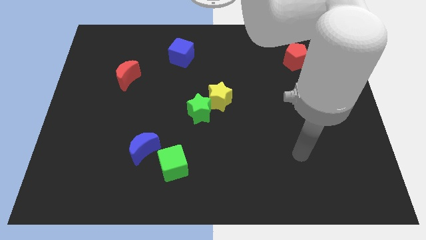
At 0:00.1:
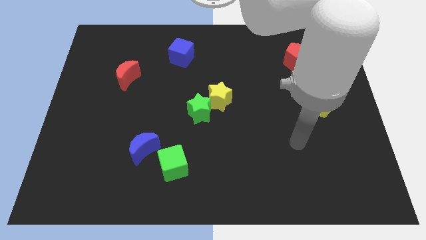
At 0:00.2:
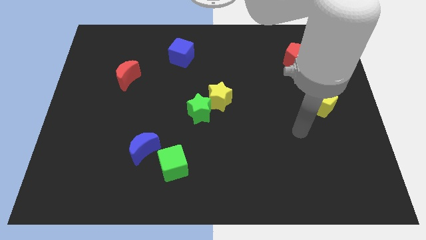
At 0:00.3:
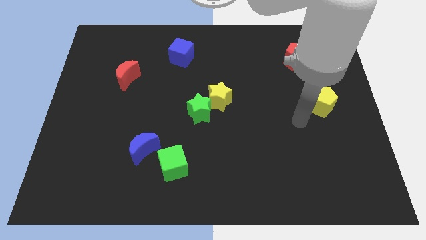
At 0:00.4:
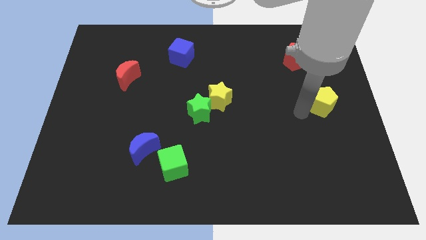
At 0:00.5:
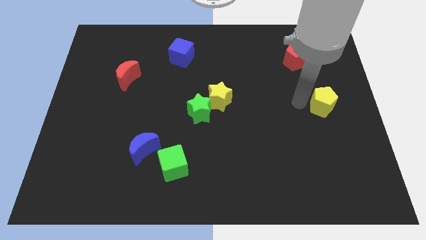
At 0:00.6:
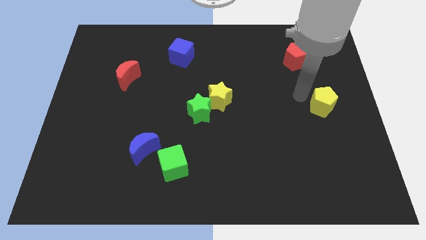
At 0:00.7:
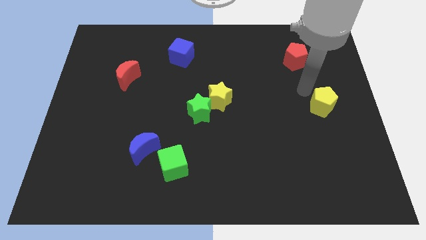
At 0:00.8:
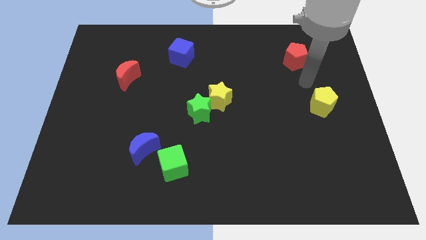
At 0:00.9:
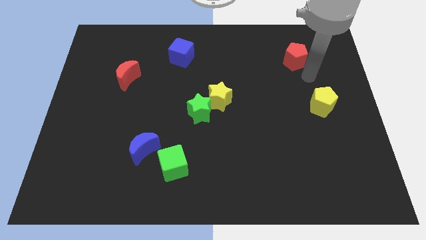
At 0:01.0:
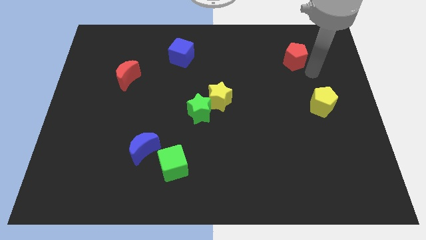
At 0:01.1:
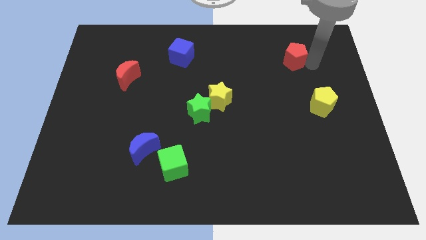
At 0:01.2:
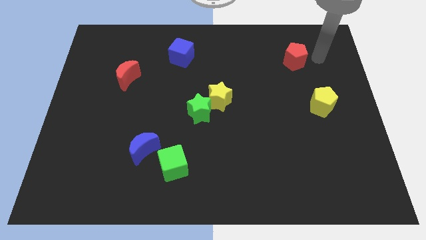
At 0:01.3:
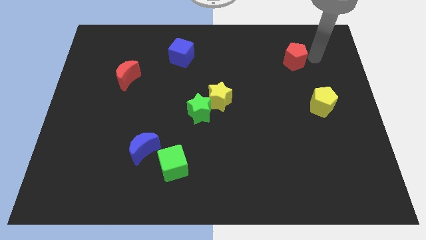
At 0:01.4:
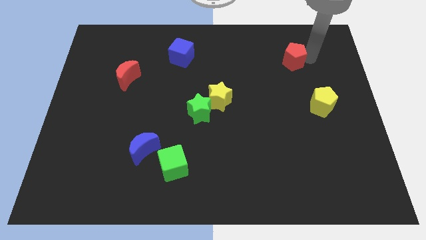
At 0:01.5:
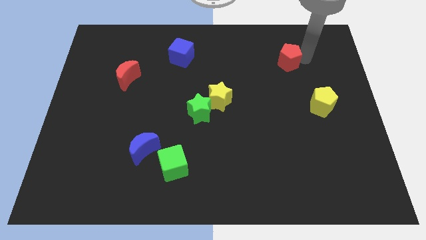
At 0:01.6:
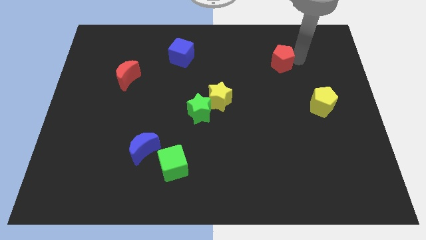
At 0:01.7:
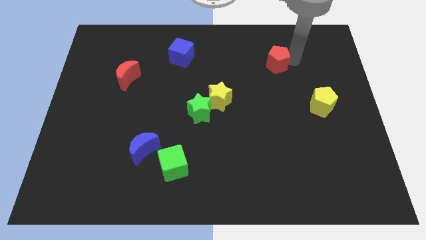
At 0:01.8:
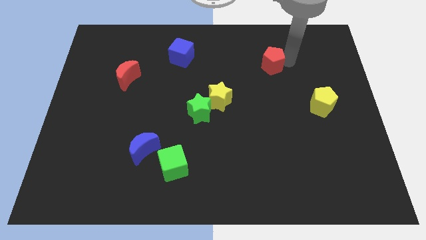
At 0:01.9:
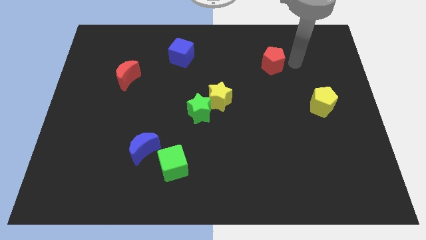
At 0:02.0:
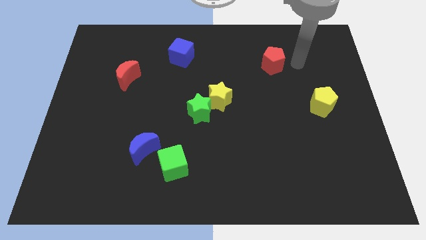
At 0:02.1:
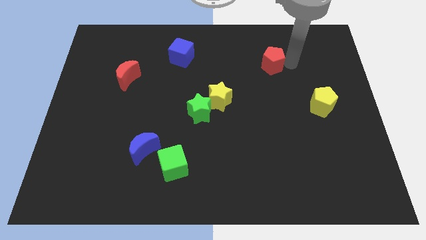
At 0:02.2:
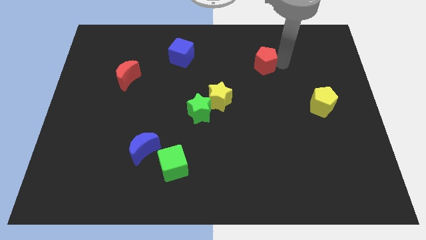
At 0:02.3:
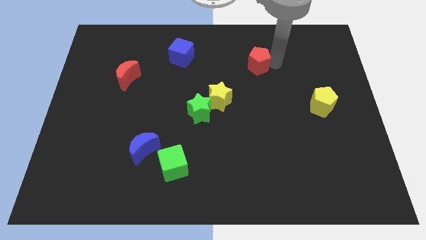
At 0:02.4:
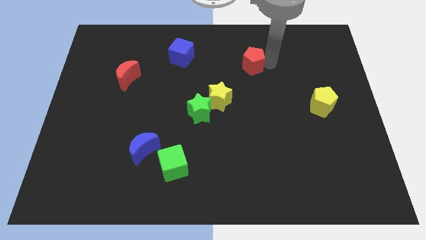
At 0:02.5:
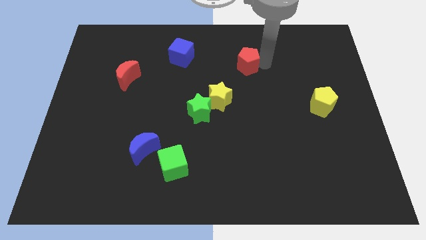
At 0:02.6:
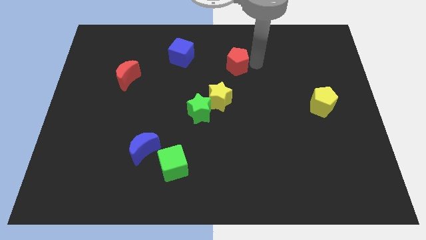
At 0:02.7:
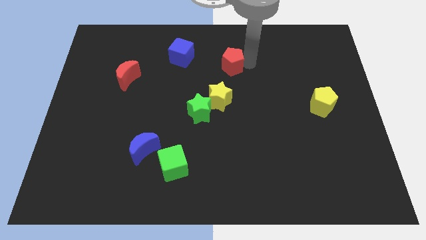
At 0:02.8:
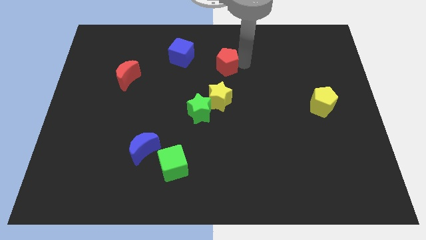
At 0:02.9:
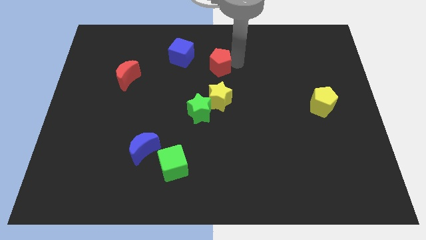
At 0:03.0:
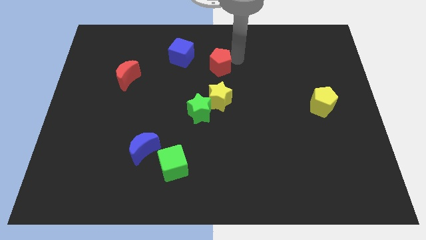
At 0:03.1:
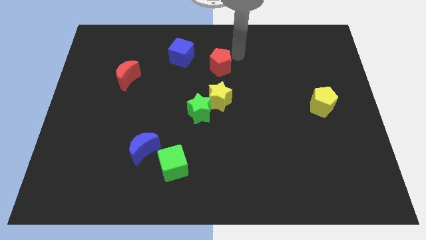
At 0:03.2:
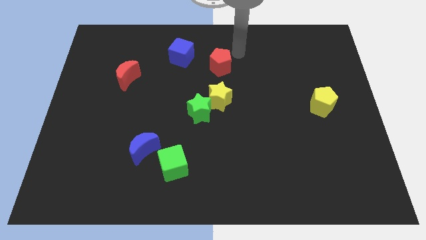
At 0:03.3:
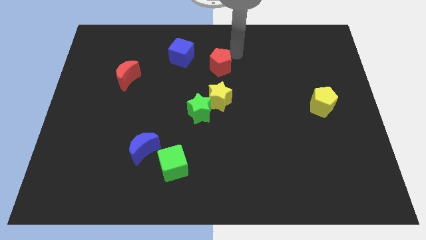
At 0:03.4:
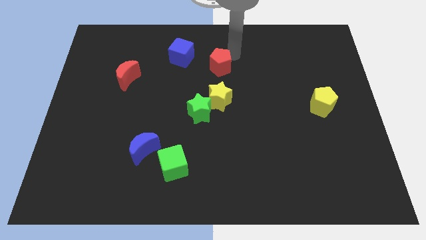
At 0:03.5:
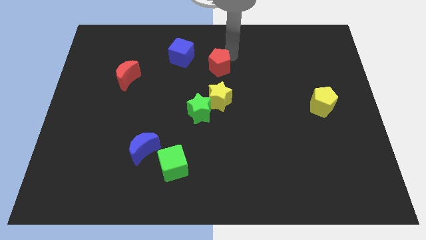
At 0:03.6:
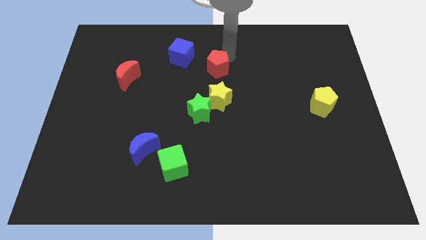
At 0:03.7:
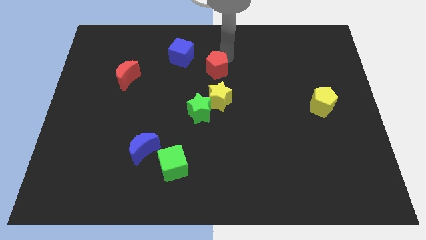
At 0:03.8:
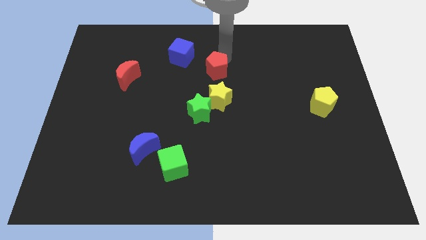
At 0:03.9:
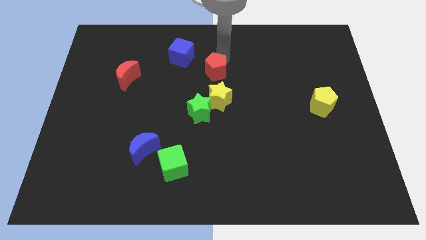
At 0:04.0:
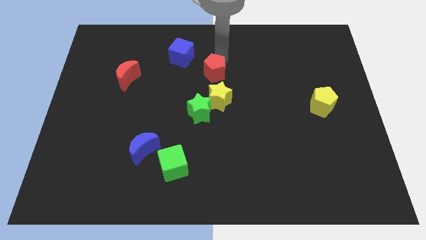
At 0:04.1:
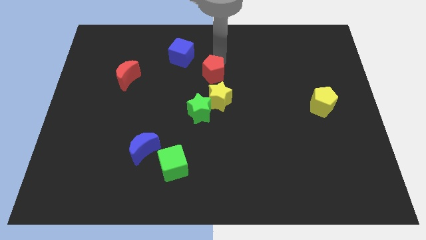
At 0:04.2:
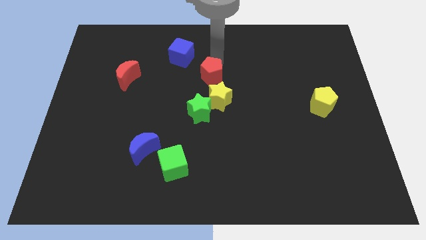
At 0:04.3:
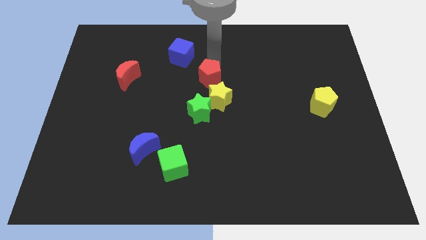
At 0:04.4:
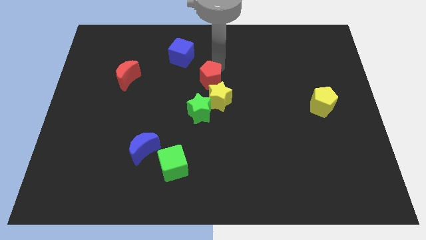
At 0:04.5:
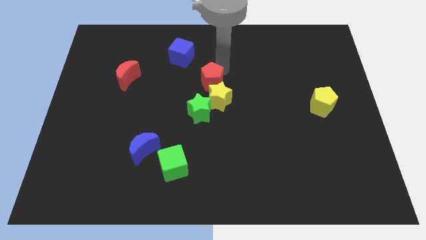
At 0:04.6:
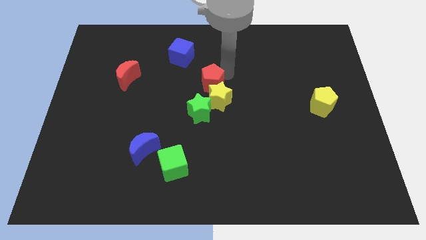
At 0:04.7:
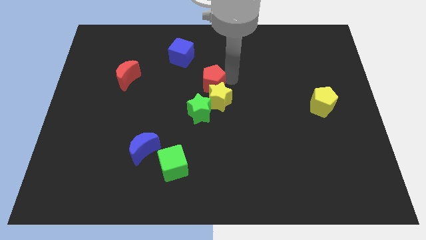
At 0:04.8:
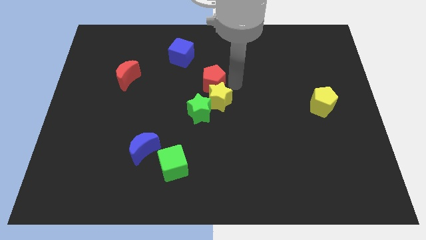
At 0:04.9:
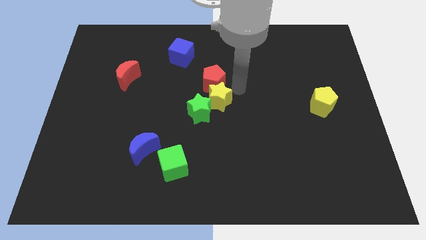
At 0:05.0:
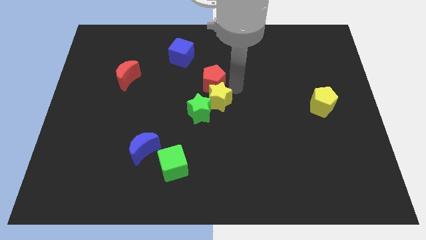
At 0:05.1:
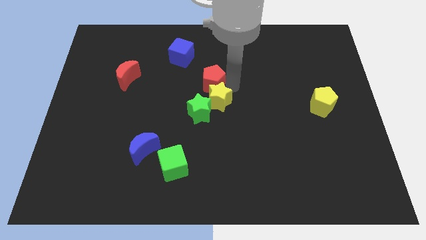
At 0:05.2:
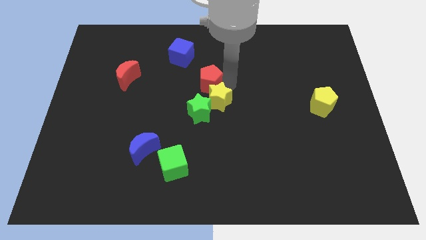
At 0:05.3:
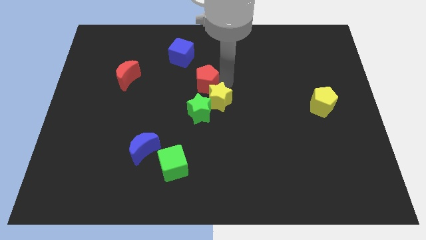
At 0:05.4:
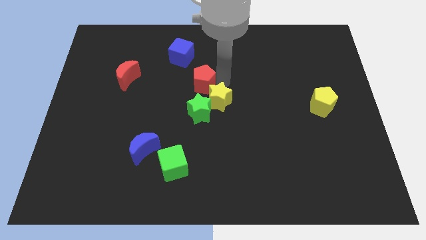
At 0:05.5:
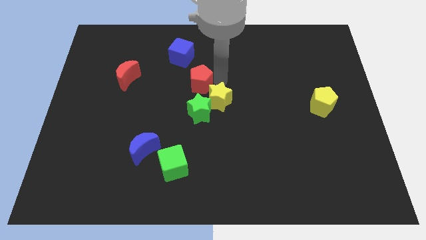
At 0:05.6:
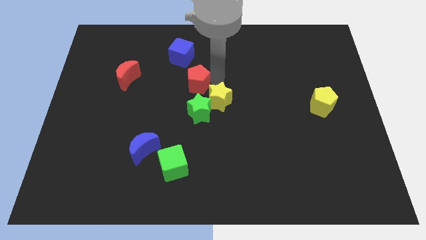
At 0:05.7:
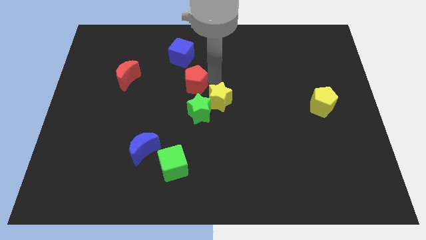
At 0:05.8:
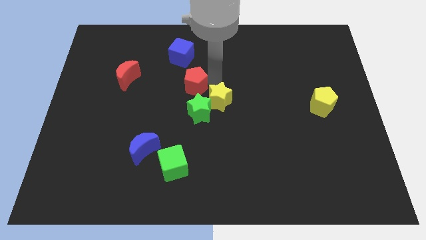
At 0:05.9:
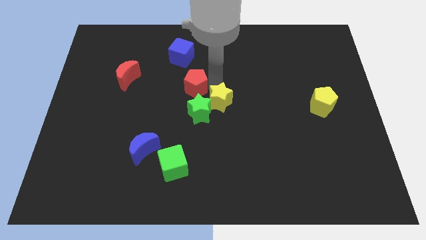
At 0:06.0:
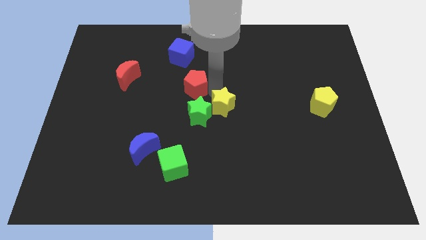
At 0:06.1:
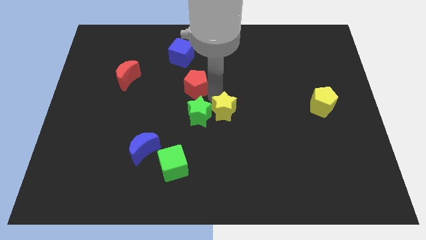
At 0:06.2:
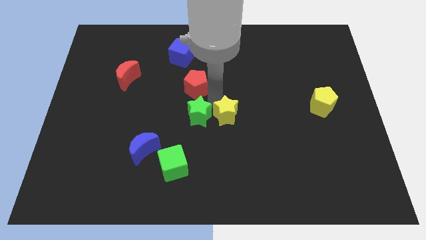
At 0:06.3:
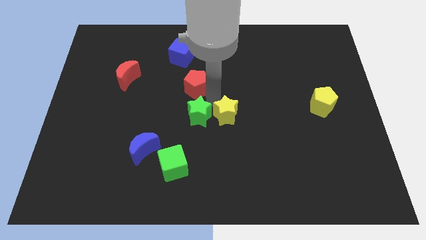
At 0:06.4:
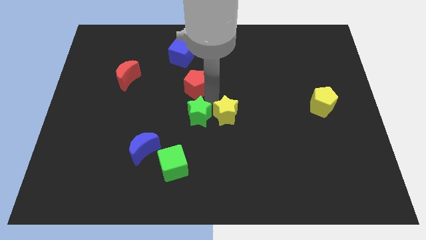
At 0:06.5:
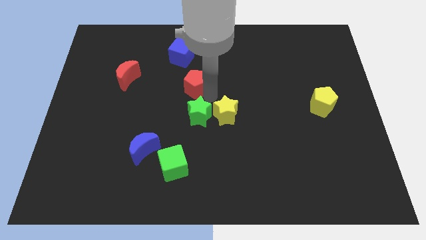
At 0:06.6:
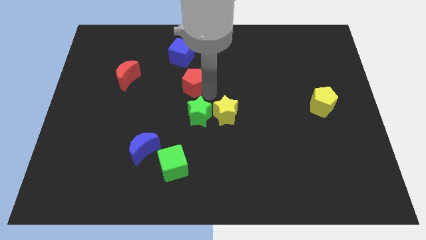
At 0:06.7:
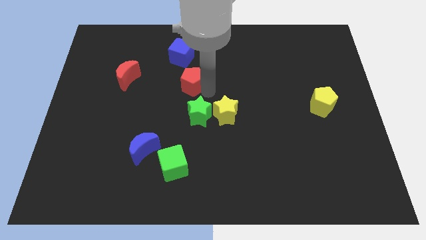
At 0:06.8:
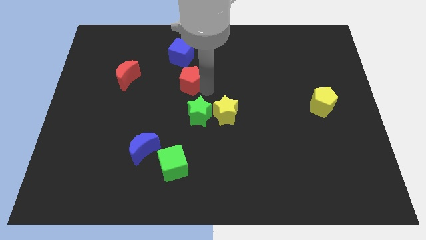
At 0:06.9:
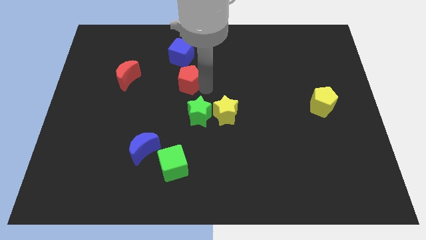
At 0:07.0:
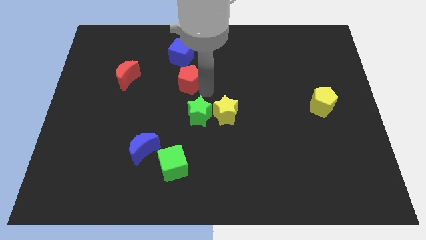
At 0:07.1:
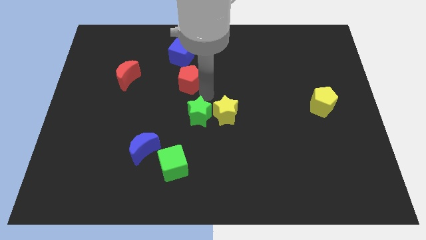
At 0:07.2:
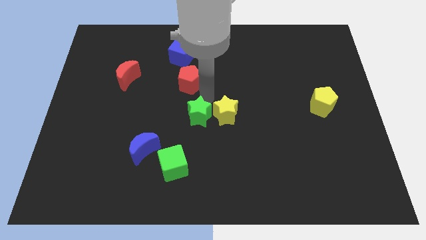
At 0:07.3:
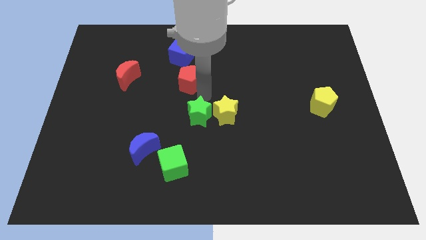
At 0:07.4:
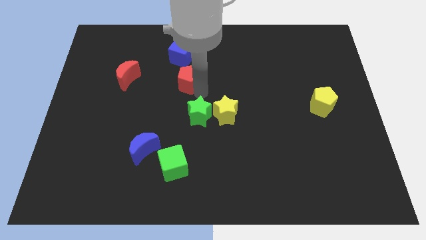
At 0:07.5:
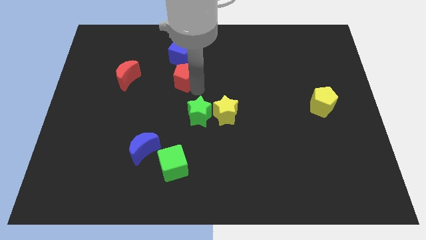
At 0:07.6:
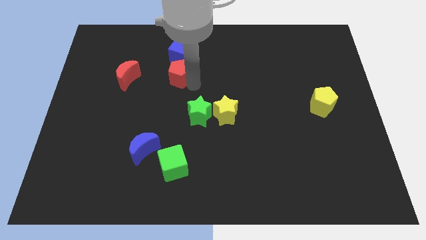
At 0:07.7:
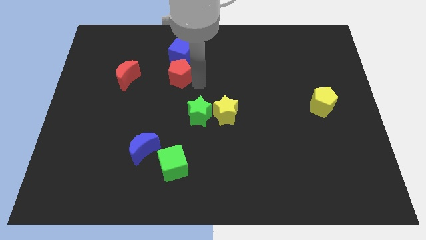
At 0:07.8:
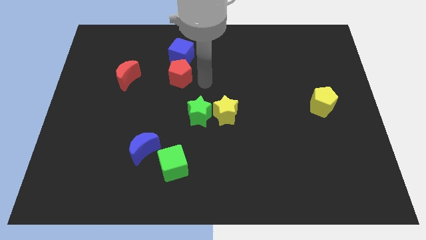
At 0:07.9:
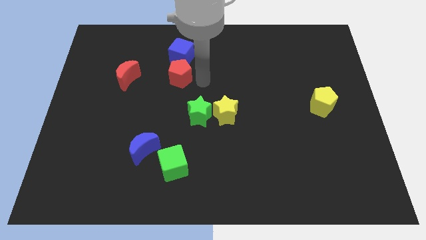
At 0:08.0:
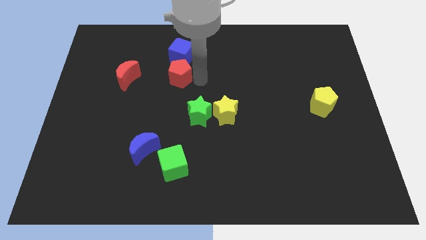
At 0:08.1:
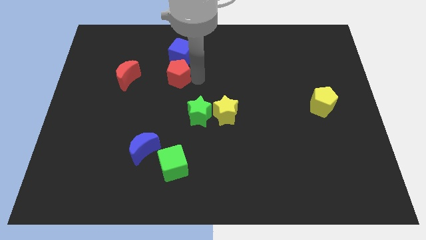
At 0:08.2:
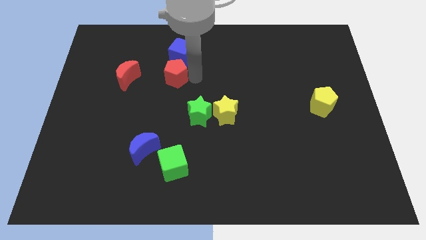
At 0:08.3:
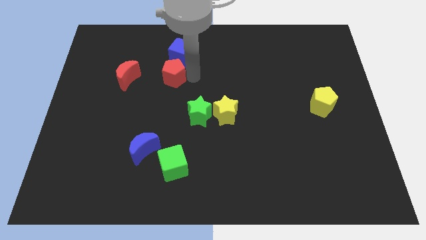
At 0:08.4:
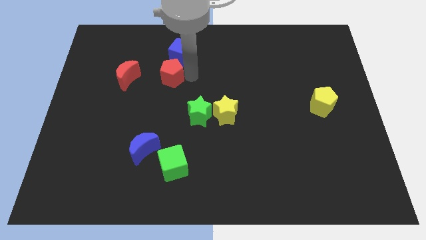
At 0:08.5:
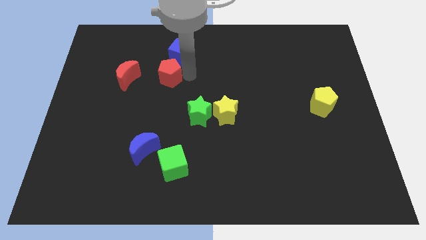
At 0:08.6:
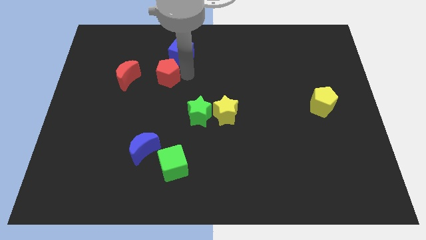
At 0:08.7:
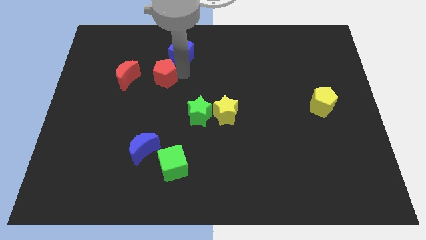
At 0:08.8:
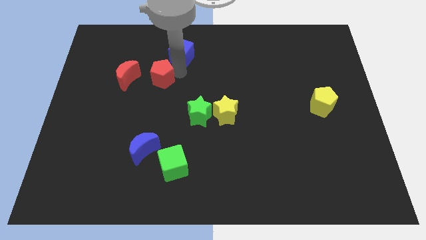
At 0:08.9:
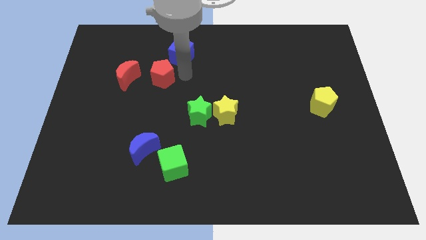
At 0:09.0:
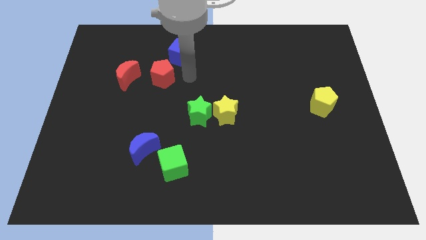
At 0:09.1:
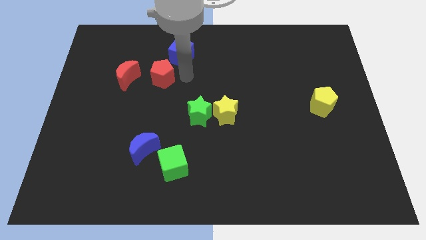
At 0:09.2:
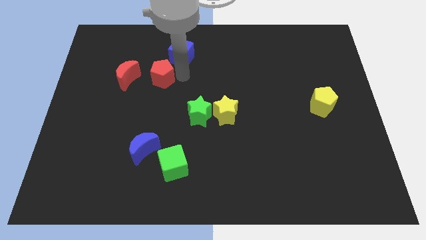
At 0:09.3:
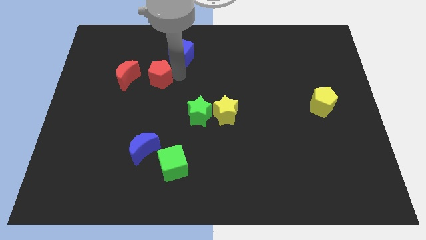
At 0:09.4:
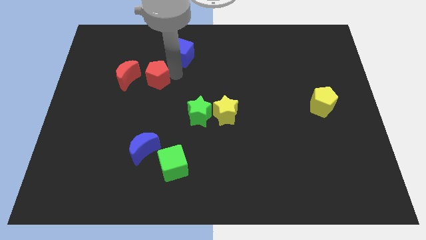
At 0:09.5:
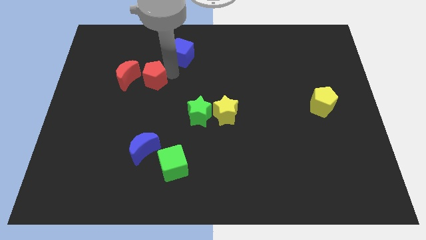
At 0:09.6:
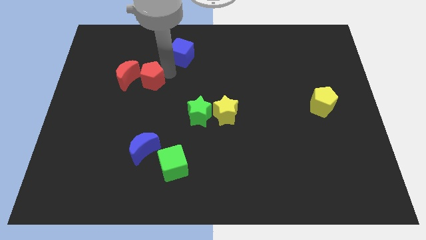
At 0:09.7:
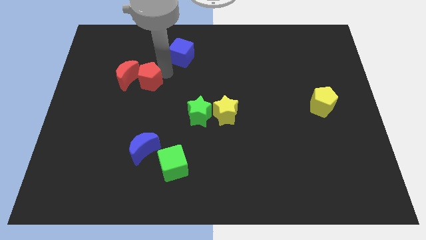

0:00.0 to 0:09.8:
put the red pentagon next to the red moon
